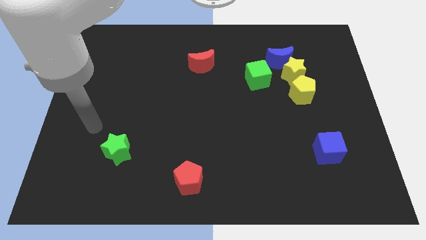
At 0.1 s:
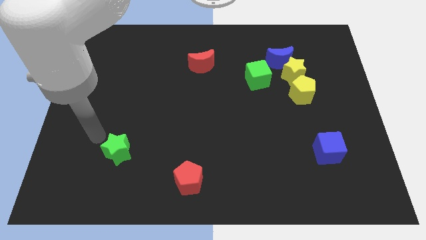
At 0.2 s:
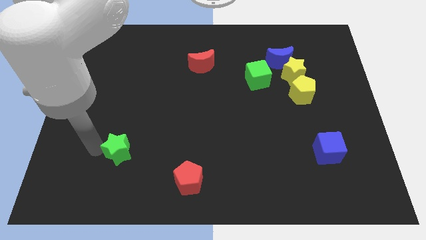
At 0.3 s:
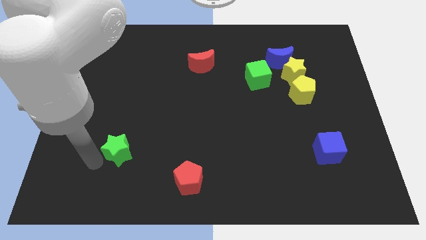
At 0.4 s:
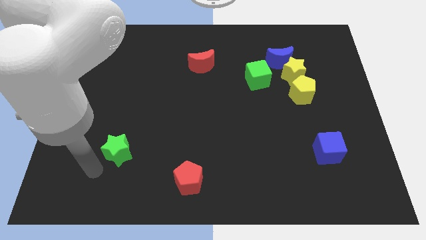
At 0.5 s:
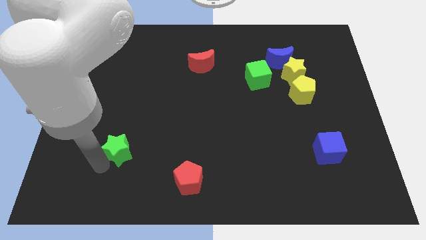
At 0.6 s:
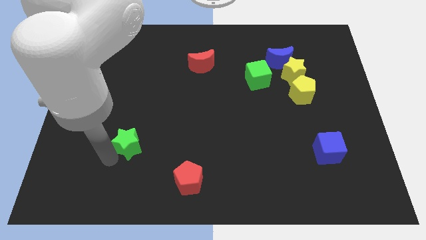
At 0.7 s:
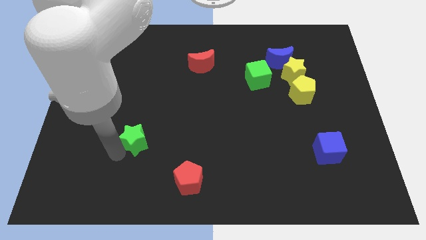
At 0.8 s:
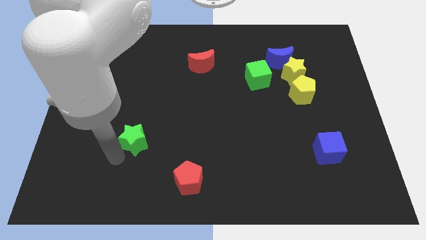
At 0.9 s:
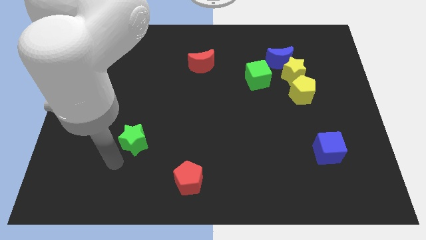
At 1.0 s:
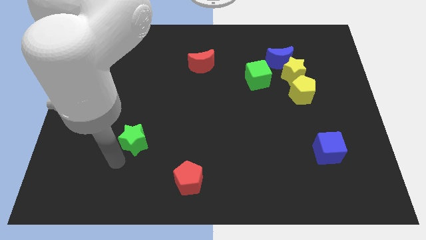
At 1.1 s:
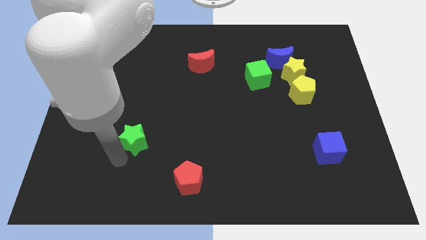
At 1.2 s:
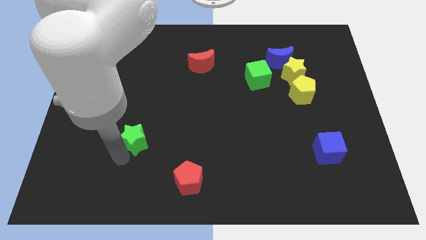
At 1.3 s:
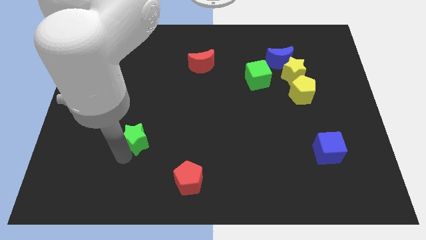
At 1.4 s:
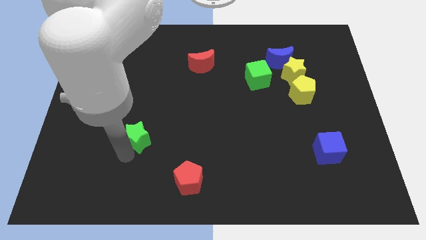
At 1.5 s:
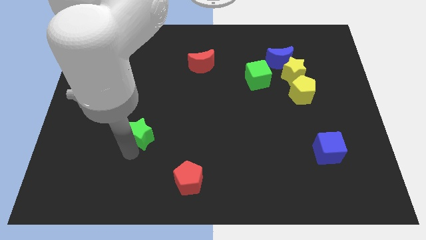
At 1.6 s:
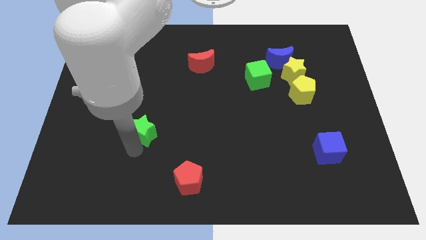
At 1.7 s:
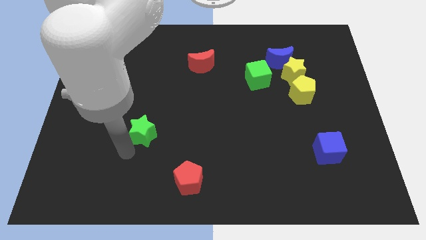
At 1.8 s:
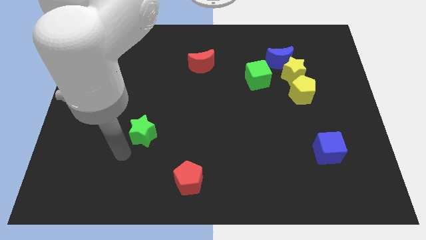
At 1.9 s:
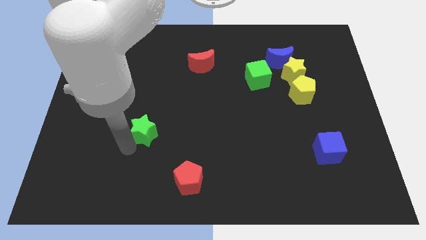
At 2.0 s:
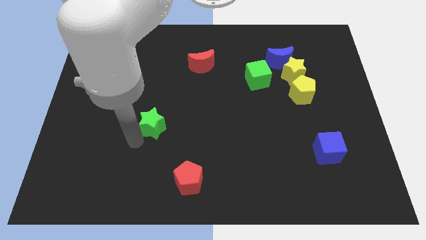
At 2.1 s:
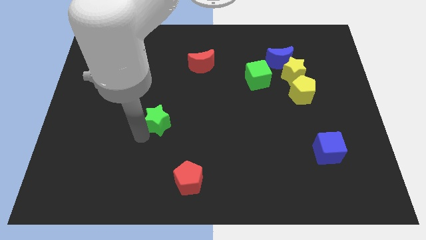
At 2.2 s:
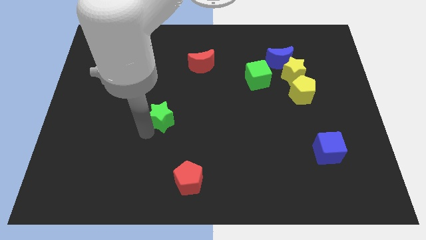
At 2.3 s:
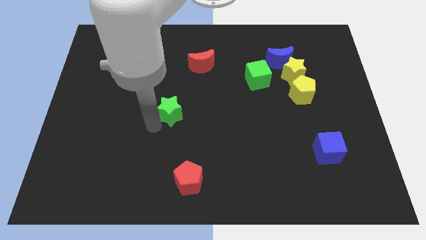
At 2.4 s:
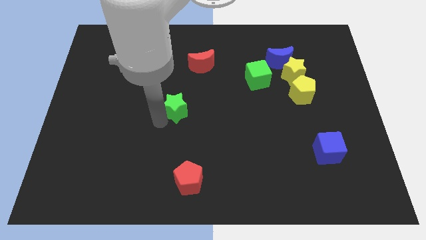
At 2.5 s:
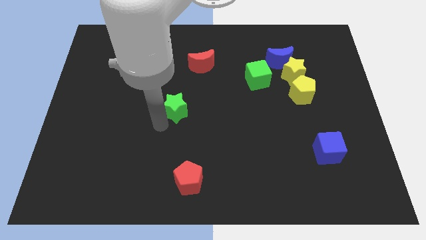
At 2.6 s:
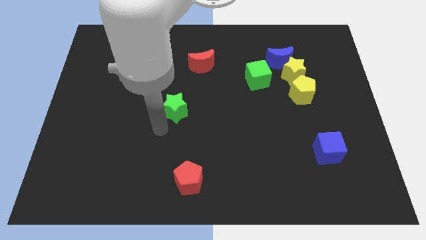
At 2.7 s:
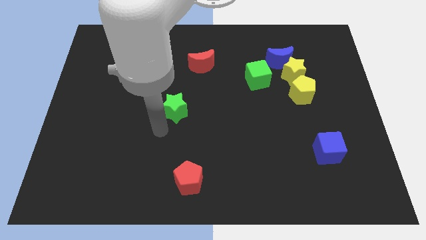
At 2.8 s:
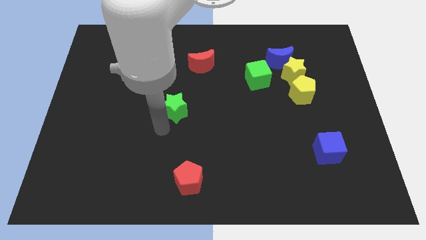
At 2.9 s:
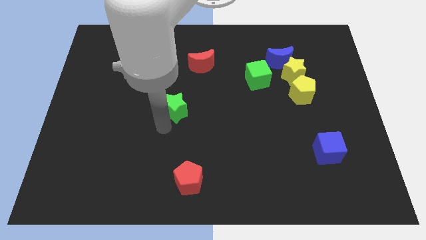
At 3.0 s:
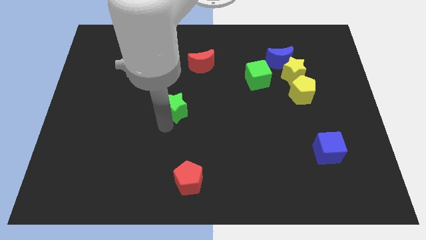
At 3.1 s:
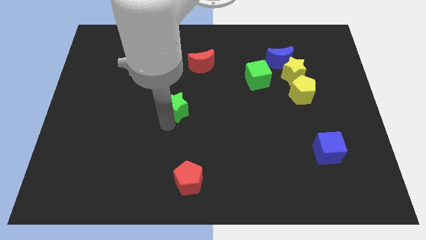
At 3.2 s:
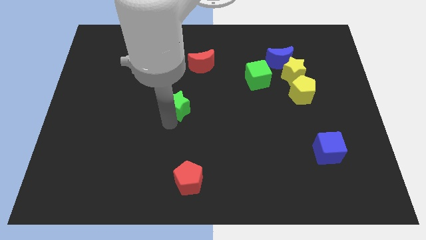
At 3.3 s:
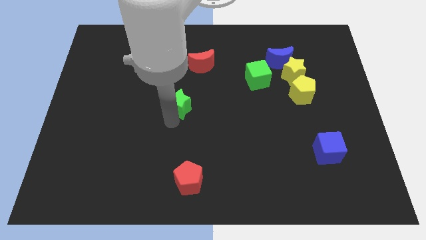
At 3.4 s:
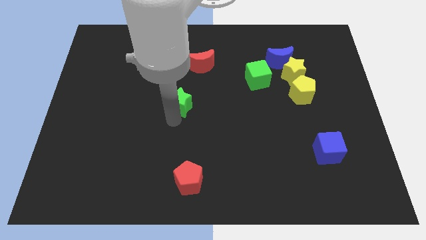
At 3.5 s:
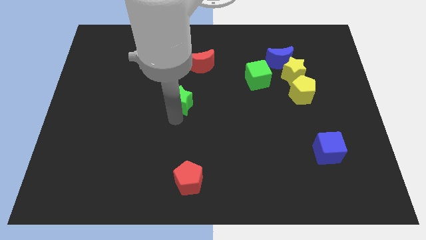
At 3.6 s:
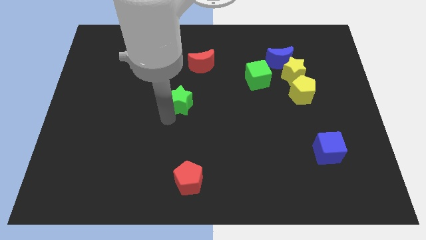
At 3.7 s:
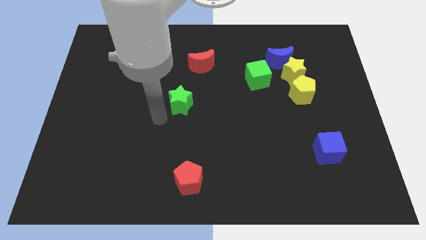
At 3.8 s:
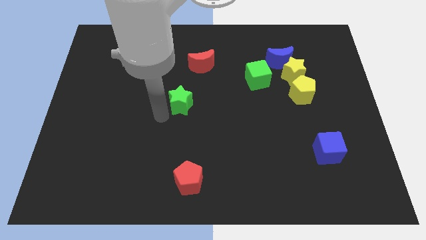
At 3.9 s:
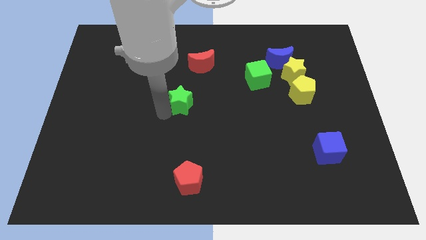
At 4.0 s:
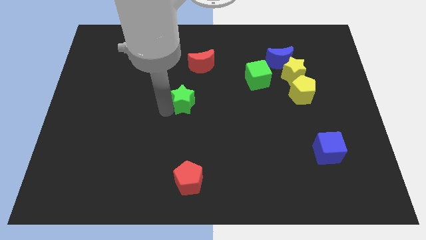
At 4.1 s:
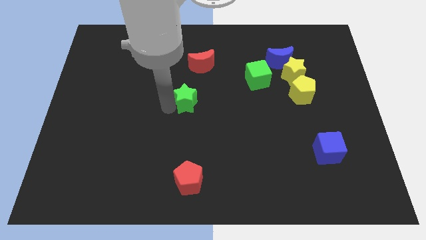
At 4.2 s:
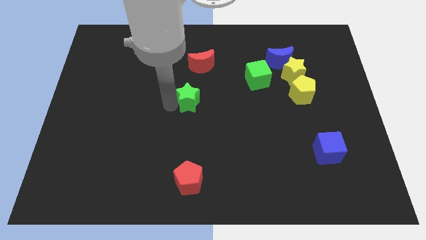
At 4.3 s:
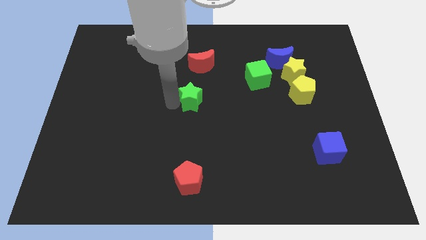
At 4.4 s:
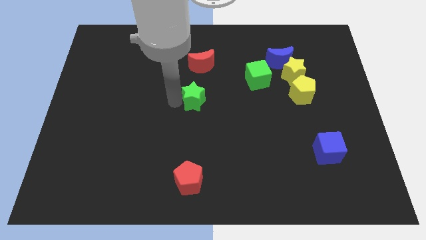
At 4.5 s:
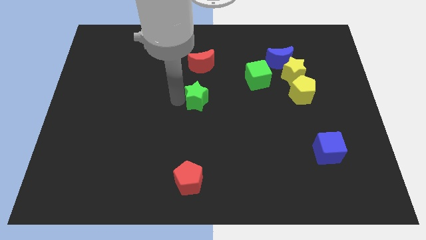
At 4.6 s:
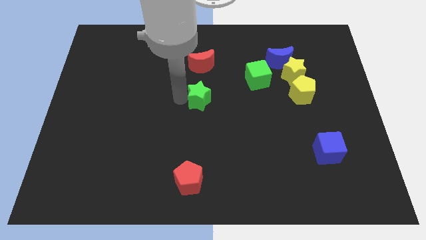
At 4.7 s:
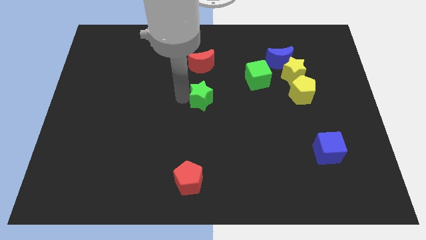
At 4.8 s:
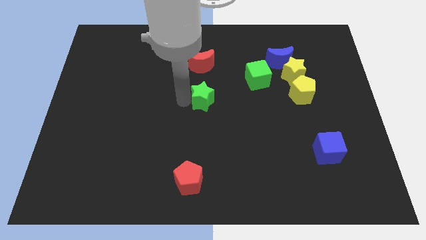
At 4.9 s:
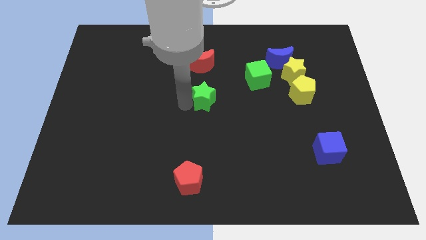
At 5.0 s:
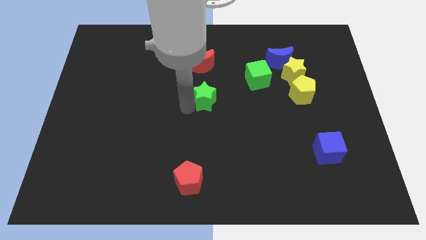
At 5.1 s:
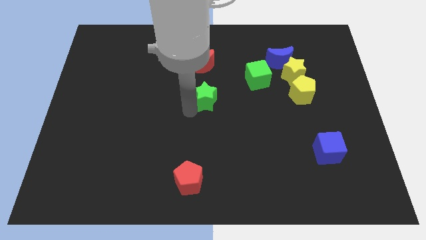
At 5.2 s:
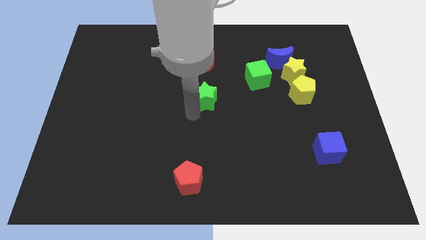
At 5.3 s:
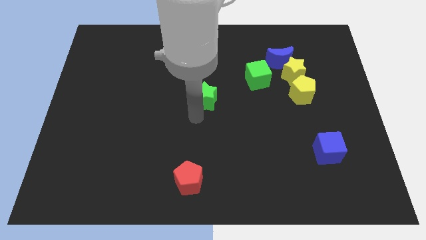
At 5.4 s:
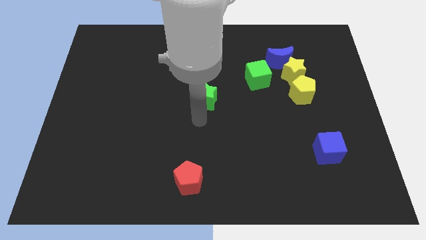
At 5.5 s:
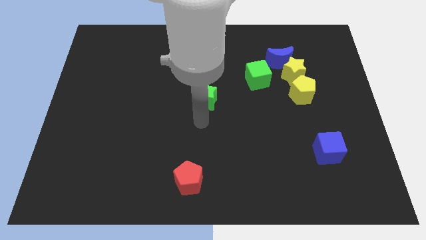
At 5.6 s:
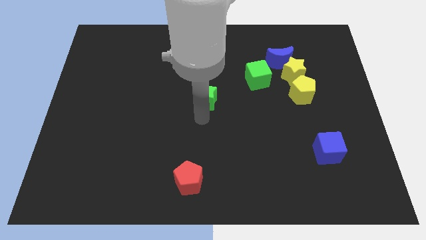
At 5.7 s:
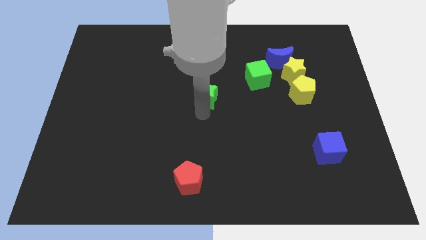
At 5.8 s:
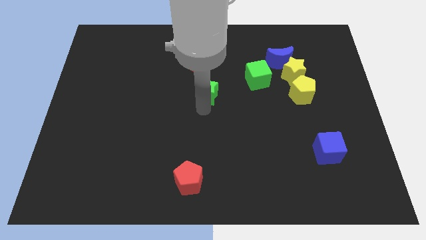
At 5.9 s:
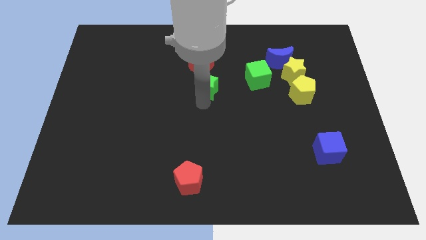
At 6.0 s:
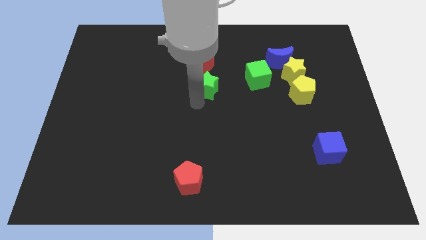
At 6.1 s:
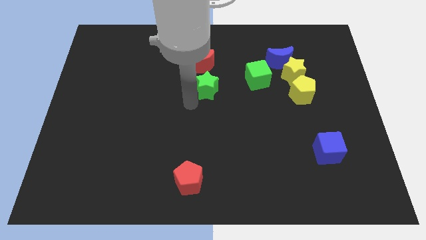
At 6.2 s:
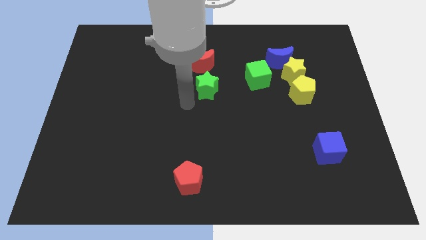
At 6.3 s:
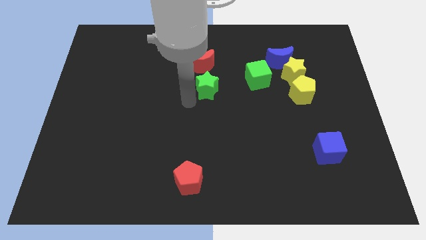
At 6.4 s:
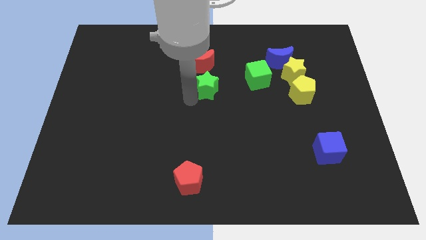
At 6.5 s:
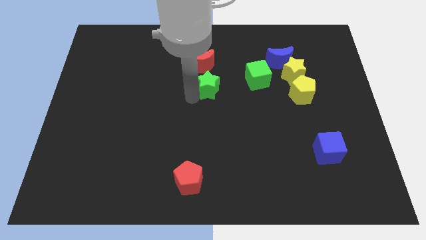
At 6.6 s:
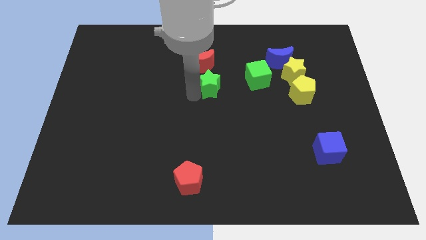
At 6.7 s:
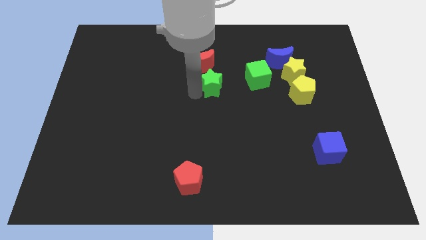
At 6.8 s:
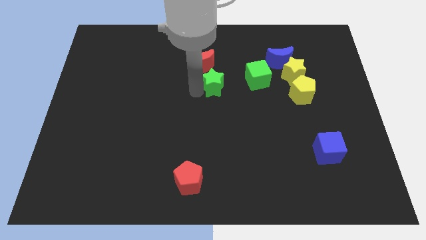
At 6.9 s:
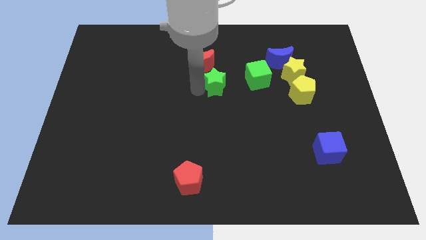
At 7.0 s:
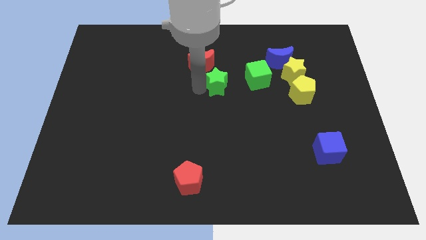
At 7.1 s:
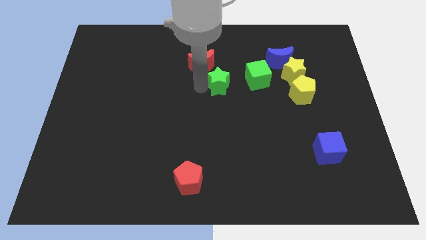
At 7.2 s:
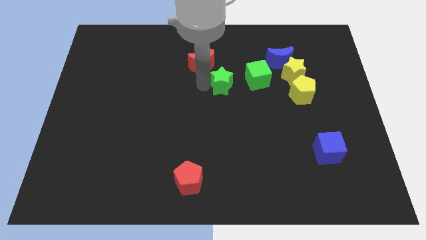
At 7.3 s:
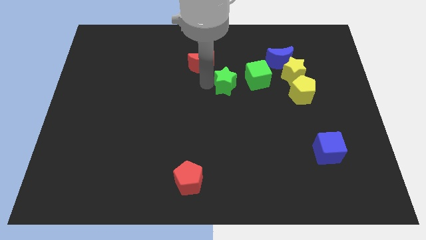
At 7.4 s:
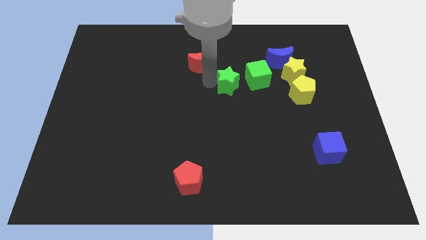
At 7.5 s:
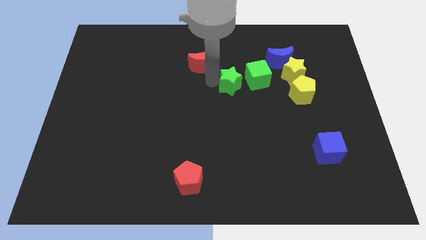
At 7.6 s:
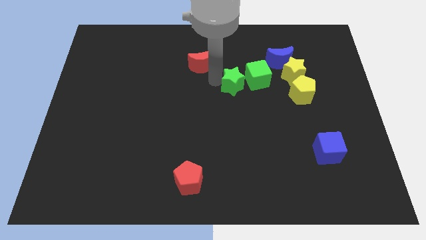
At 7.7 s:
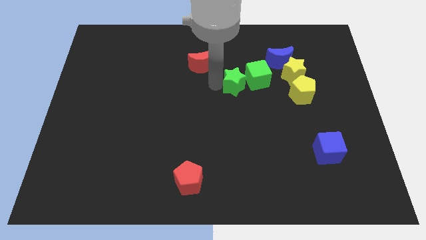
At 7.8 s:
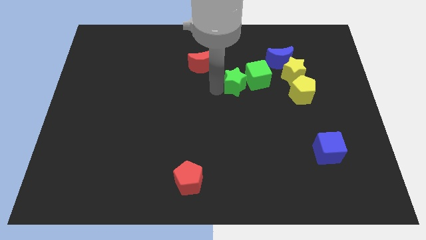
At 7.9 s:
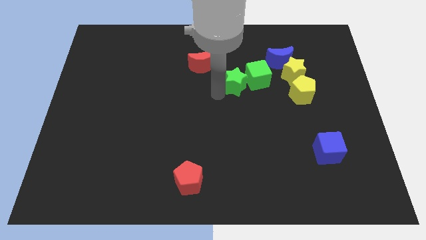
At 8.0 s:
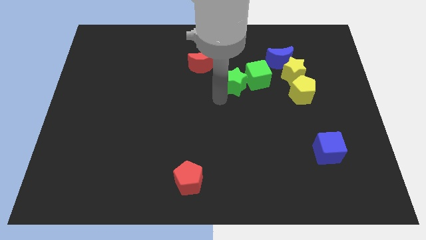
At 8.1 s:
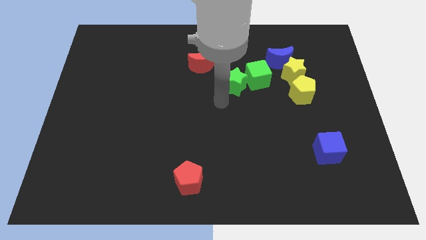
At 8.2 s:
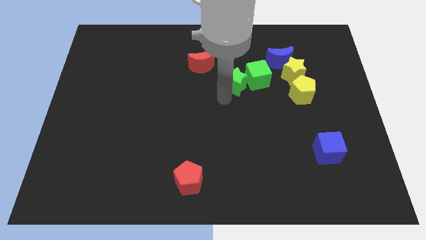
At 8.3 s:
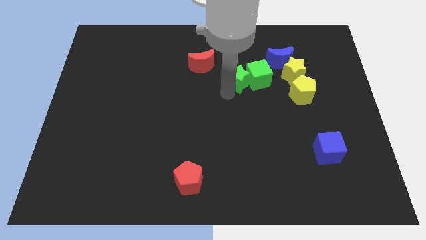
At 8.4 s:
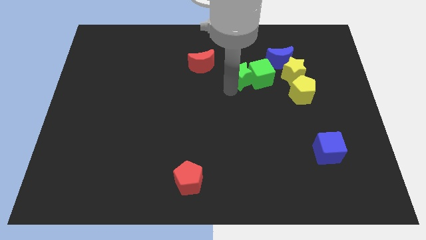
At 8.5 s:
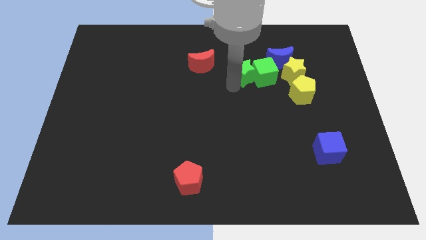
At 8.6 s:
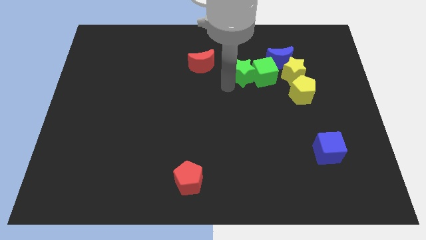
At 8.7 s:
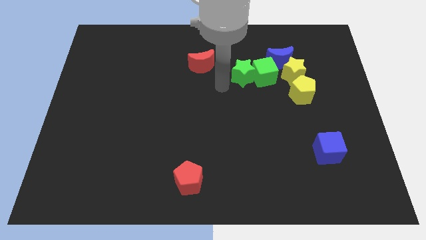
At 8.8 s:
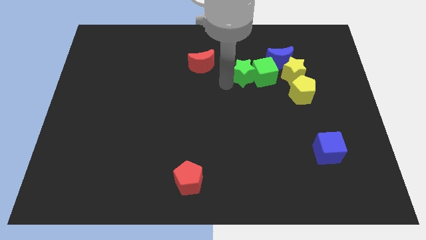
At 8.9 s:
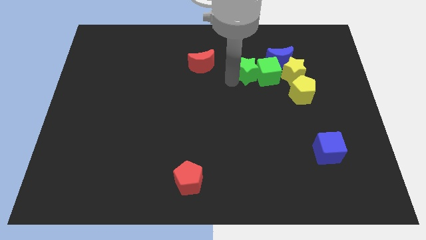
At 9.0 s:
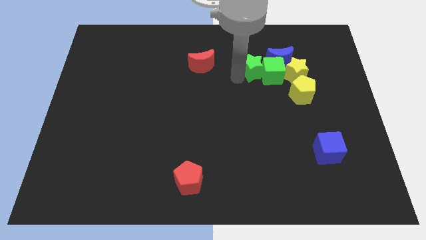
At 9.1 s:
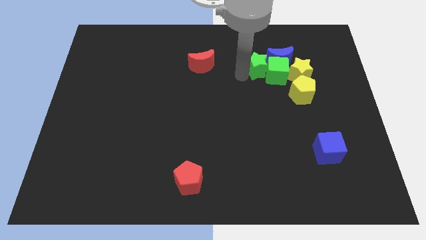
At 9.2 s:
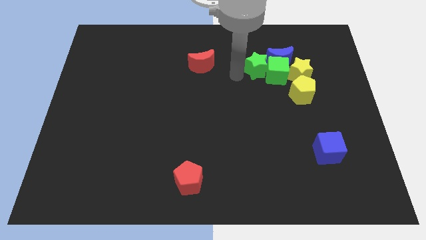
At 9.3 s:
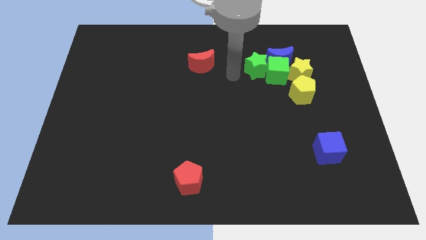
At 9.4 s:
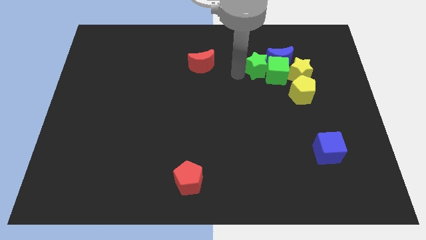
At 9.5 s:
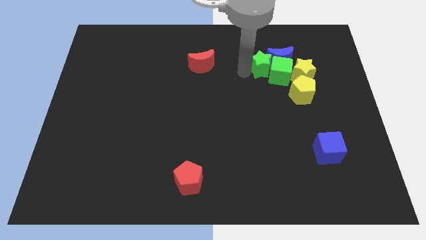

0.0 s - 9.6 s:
push the green star to the blue moon
